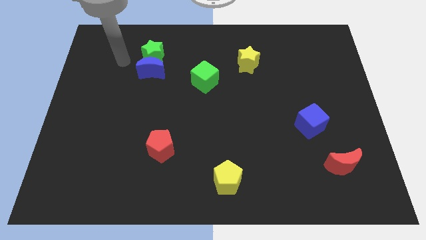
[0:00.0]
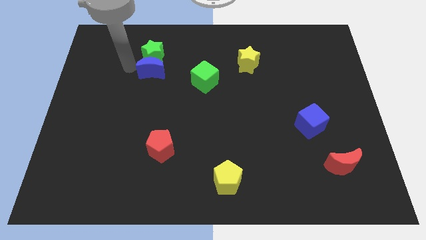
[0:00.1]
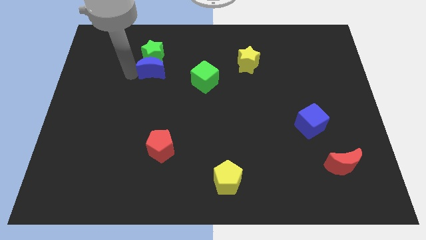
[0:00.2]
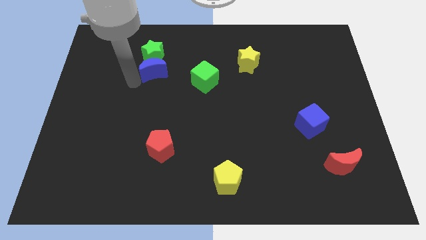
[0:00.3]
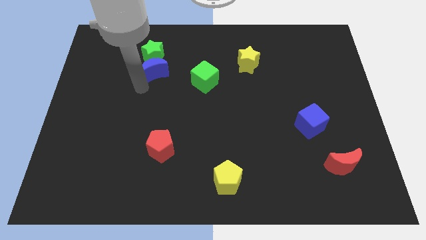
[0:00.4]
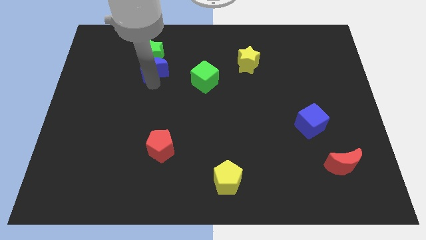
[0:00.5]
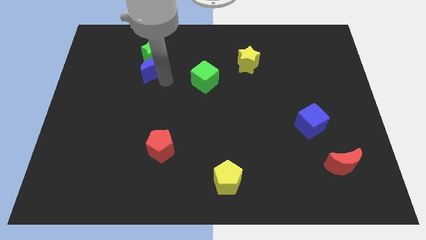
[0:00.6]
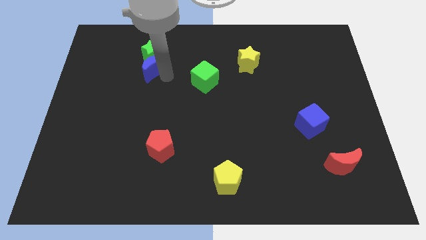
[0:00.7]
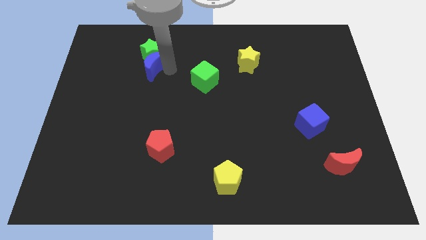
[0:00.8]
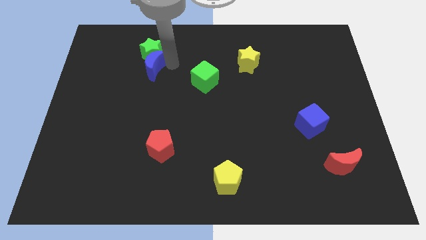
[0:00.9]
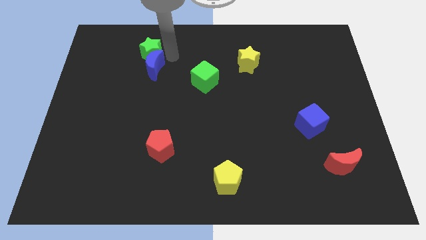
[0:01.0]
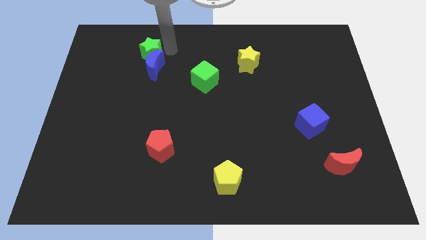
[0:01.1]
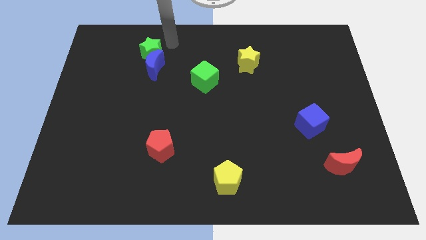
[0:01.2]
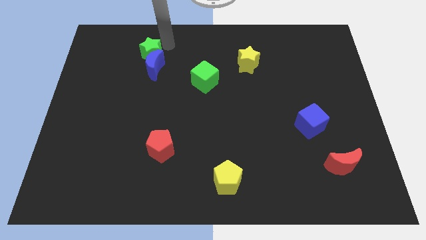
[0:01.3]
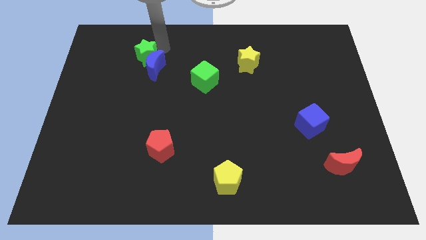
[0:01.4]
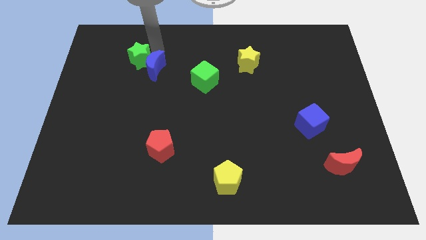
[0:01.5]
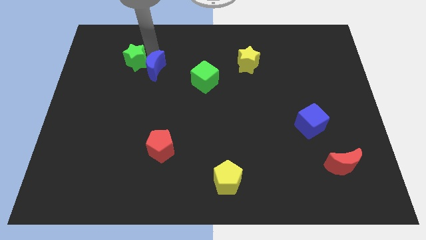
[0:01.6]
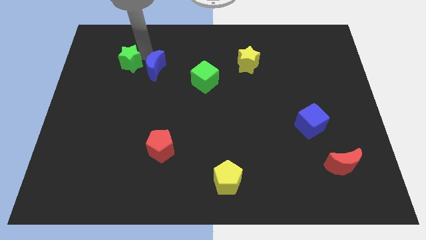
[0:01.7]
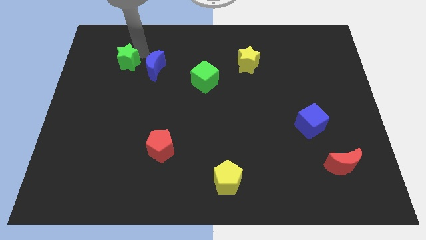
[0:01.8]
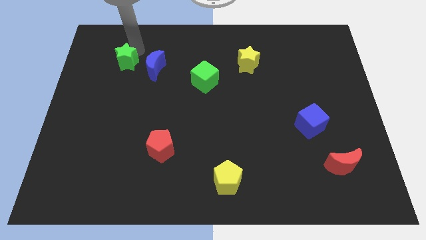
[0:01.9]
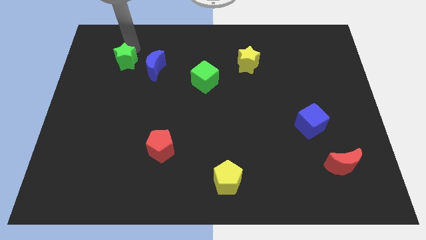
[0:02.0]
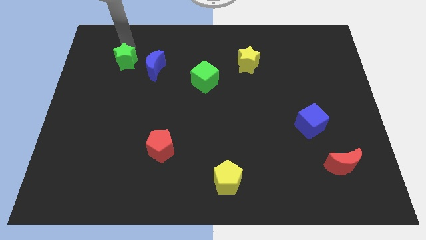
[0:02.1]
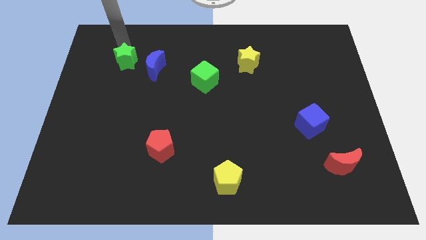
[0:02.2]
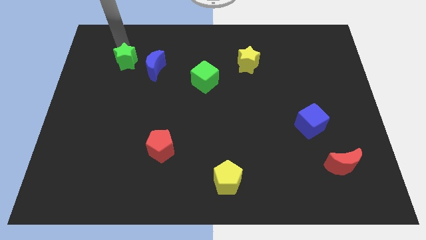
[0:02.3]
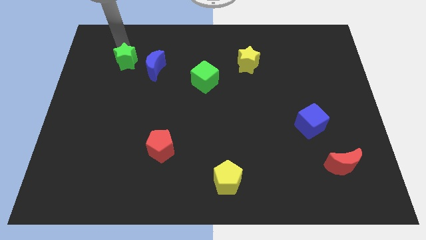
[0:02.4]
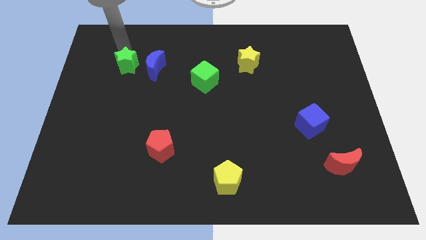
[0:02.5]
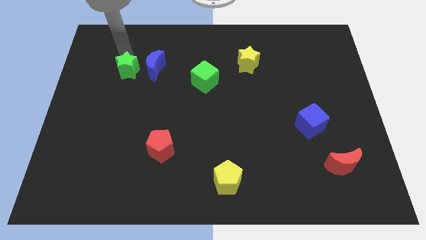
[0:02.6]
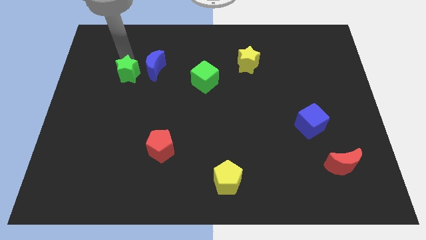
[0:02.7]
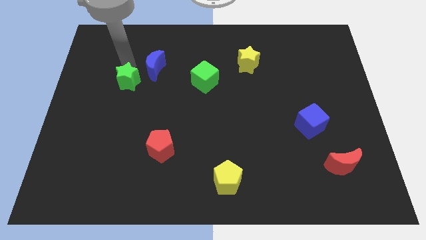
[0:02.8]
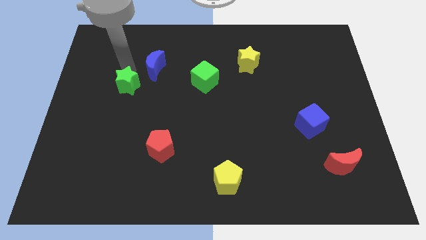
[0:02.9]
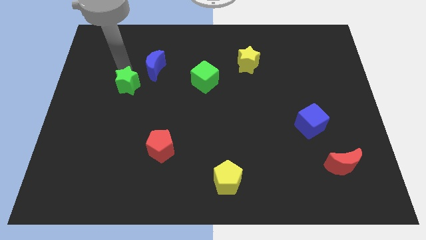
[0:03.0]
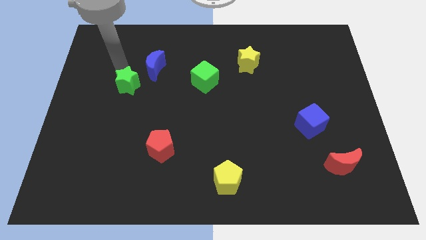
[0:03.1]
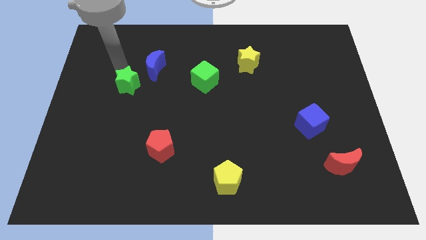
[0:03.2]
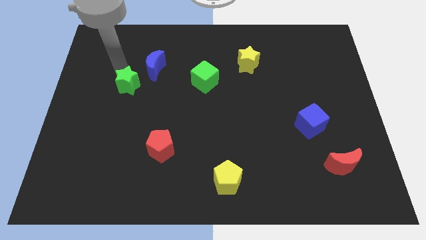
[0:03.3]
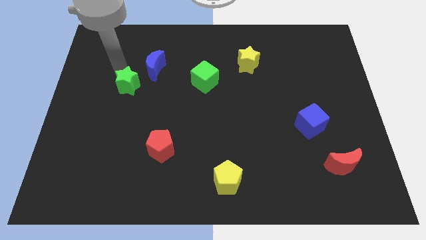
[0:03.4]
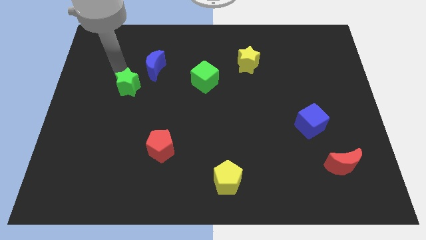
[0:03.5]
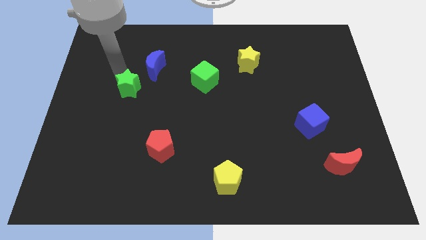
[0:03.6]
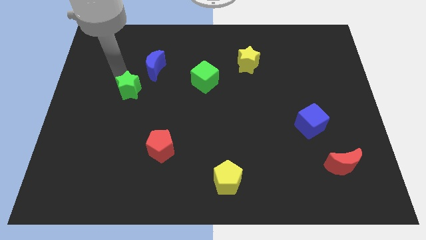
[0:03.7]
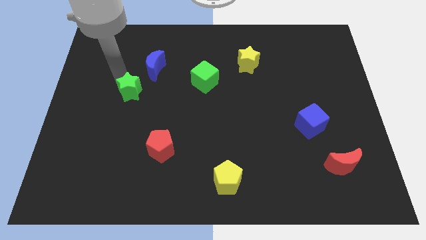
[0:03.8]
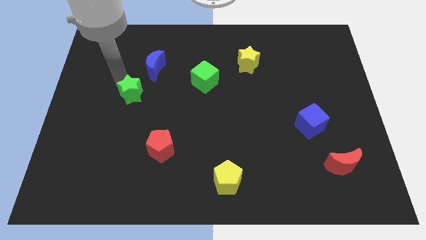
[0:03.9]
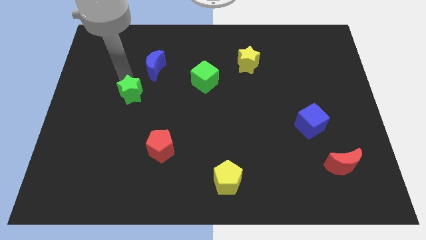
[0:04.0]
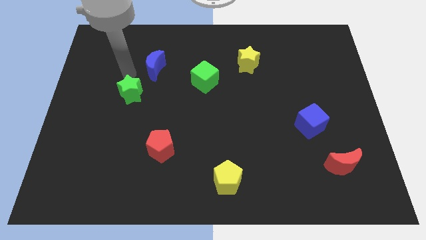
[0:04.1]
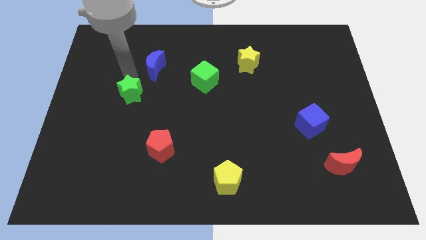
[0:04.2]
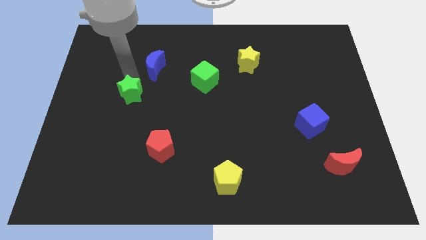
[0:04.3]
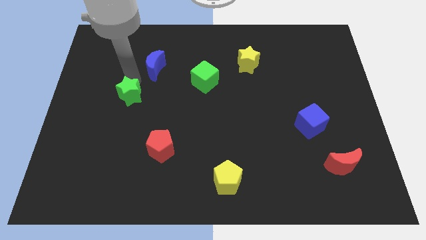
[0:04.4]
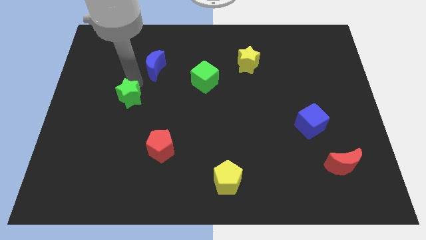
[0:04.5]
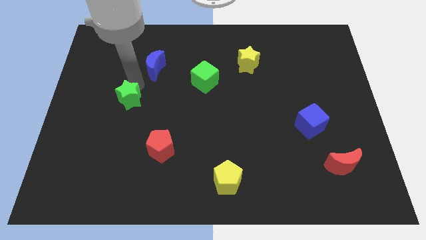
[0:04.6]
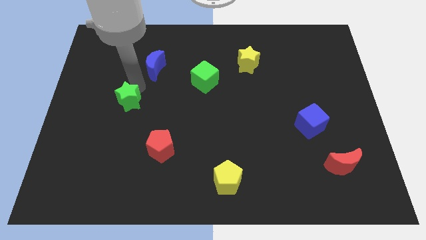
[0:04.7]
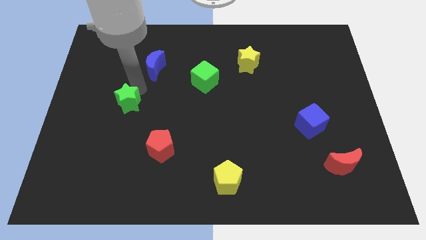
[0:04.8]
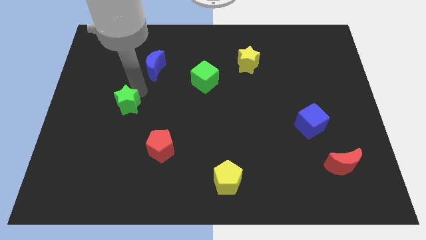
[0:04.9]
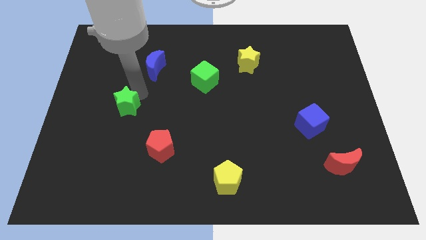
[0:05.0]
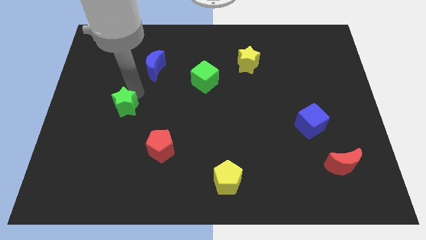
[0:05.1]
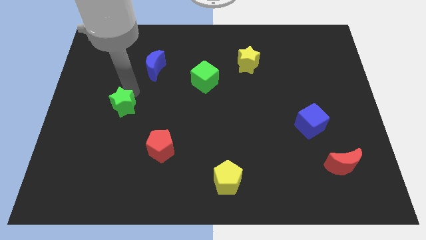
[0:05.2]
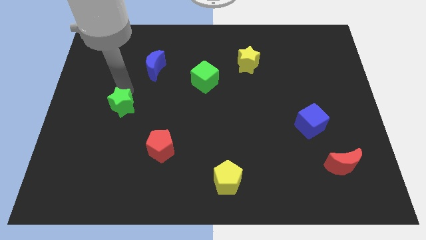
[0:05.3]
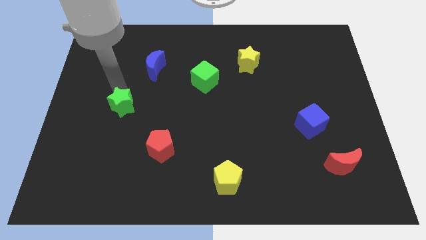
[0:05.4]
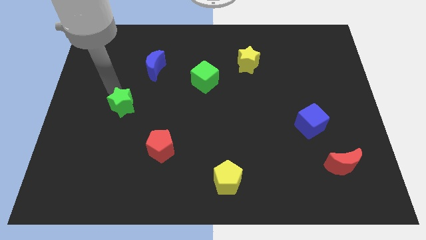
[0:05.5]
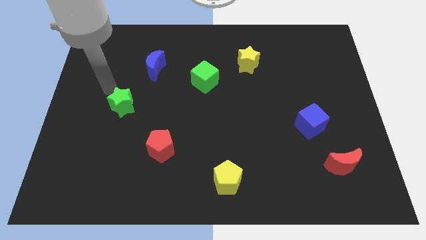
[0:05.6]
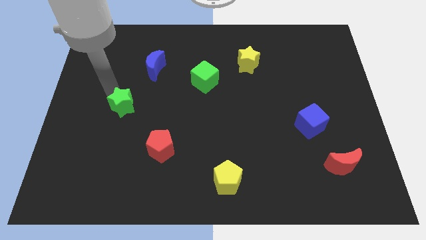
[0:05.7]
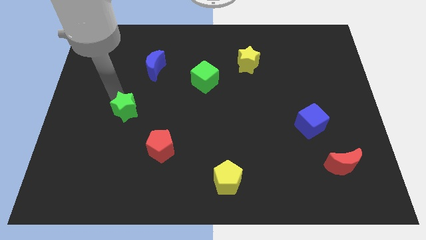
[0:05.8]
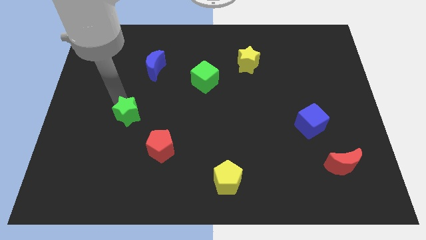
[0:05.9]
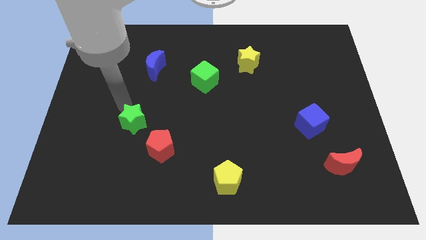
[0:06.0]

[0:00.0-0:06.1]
push the green star down

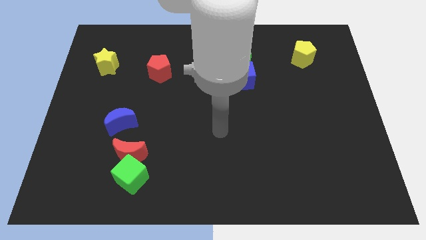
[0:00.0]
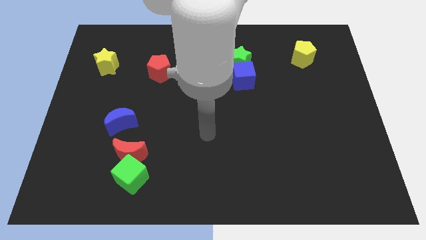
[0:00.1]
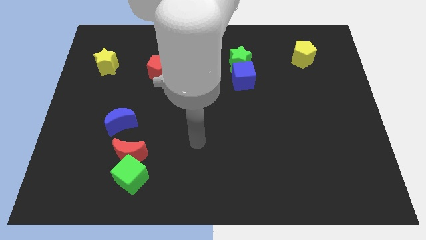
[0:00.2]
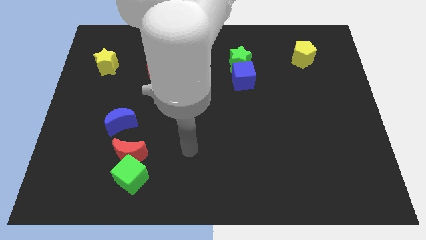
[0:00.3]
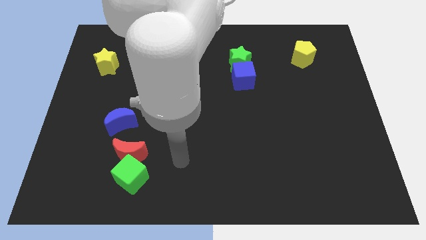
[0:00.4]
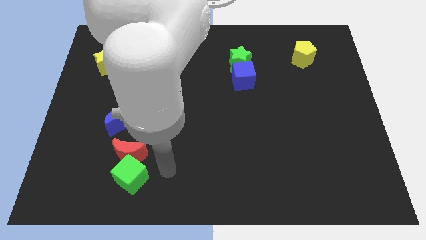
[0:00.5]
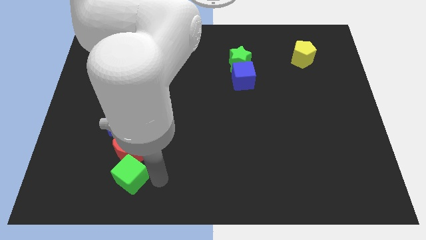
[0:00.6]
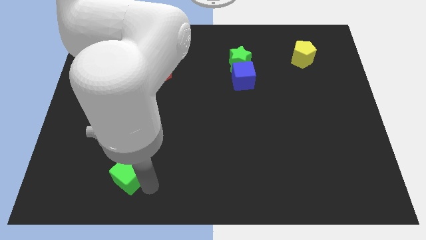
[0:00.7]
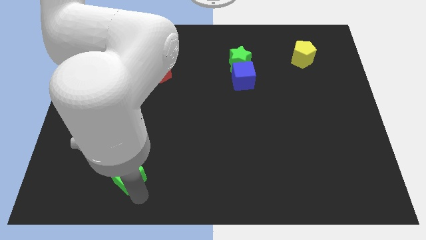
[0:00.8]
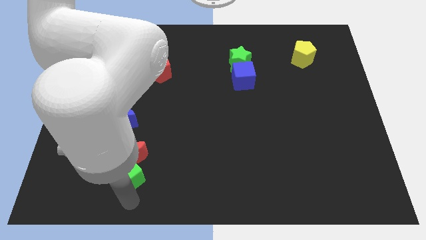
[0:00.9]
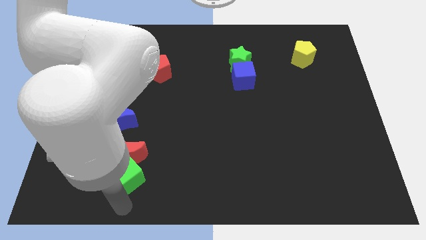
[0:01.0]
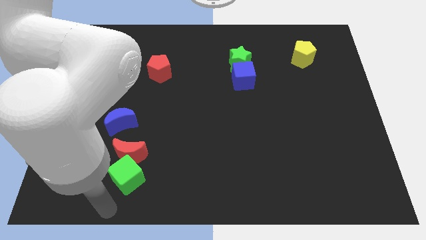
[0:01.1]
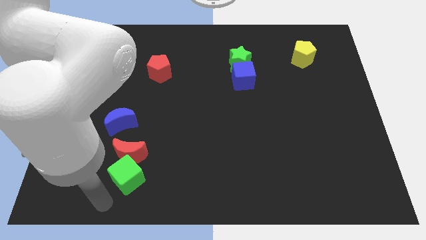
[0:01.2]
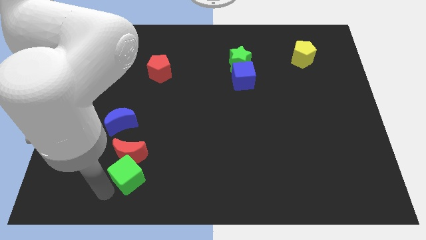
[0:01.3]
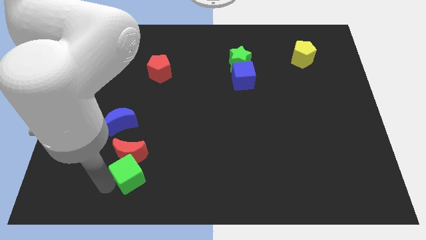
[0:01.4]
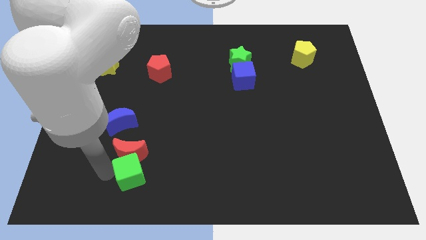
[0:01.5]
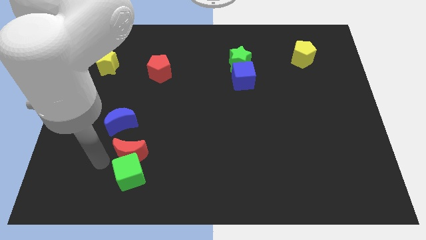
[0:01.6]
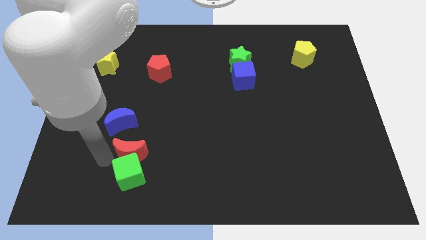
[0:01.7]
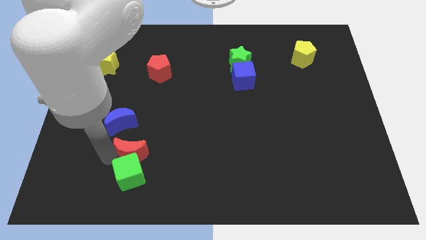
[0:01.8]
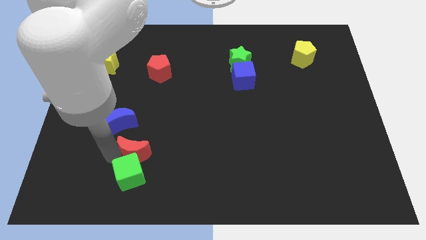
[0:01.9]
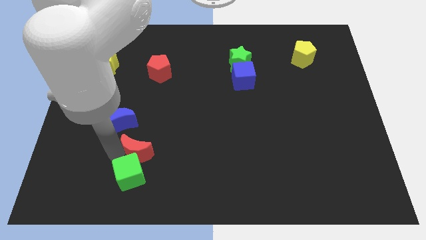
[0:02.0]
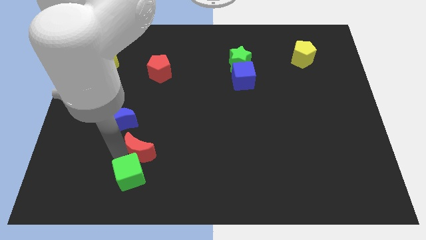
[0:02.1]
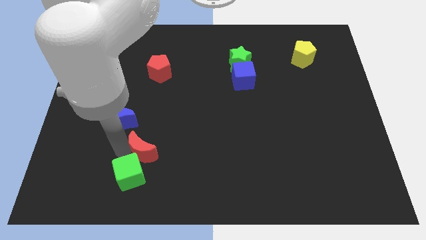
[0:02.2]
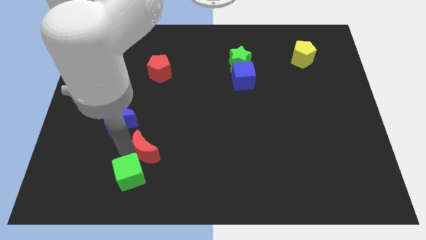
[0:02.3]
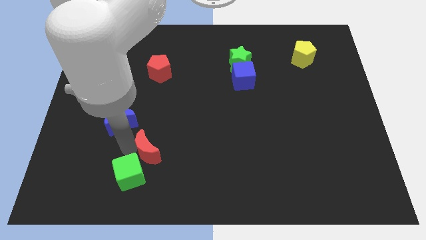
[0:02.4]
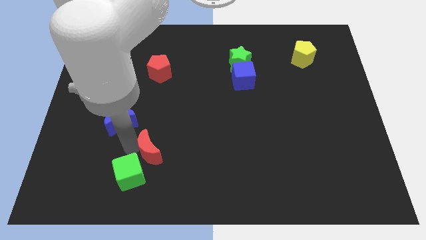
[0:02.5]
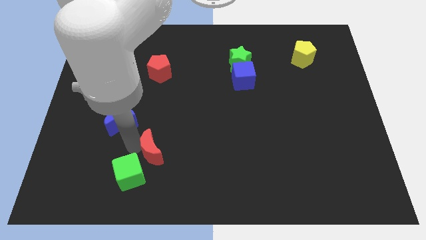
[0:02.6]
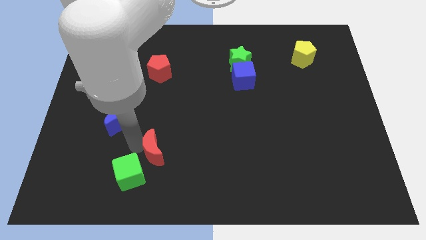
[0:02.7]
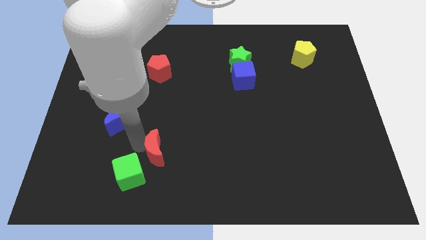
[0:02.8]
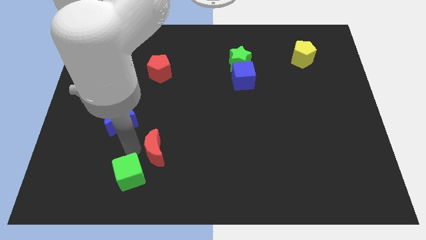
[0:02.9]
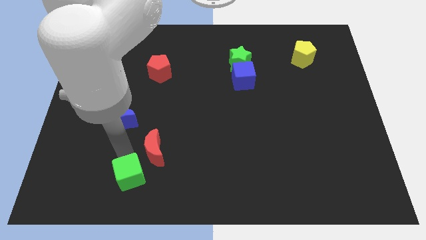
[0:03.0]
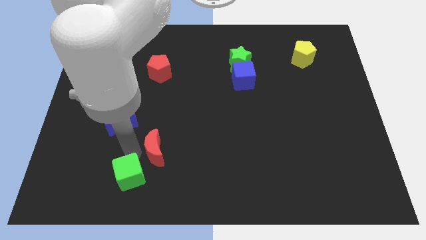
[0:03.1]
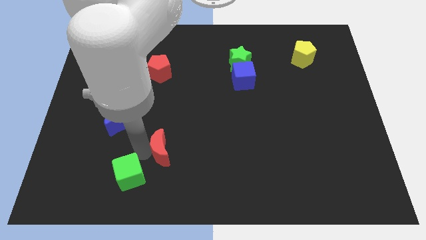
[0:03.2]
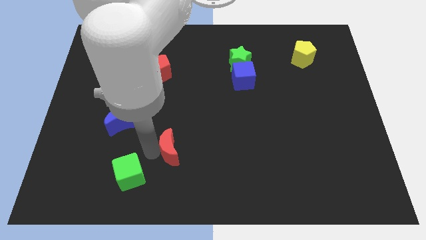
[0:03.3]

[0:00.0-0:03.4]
slightly slide the red moon to the right
